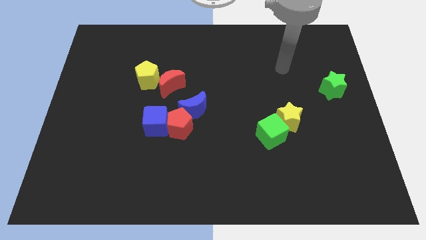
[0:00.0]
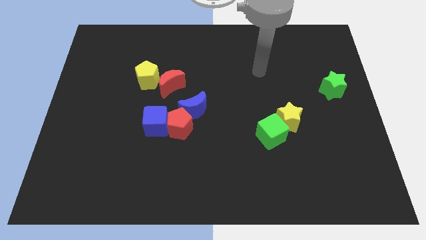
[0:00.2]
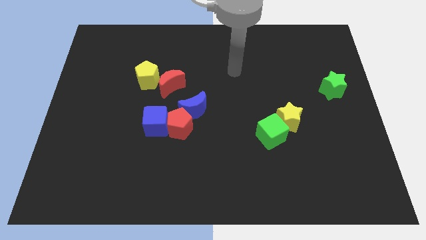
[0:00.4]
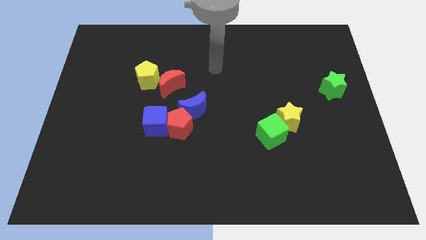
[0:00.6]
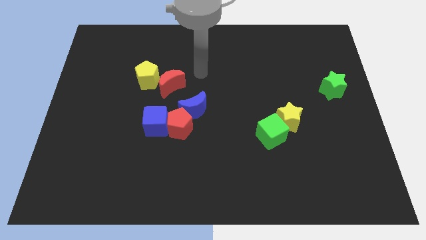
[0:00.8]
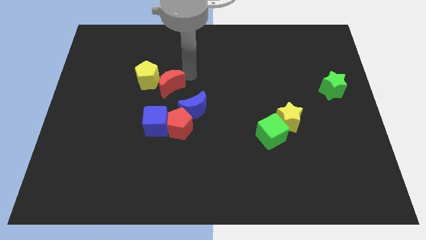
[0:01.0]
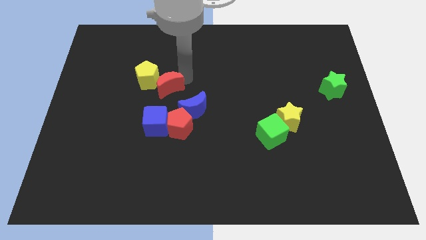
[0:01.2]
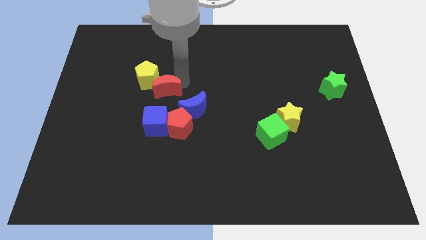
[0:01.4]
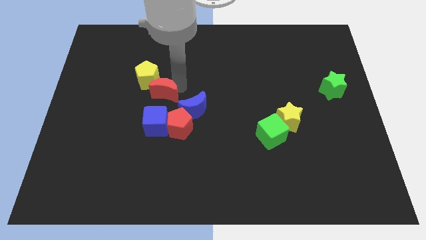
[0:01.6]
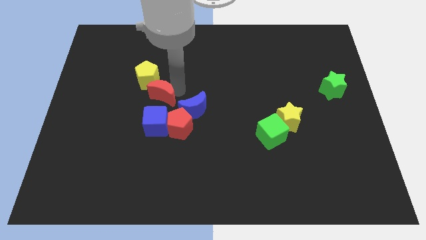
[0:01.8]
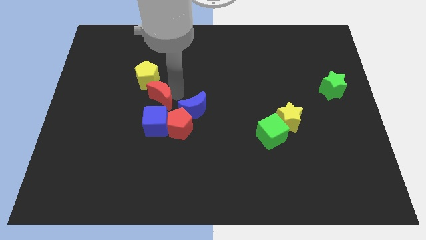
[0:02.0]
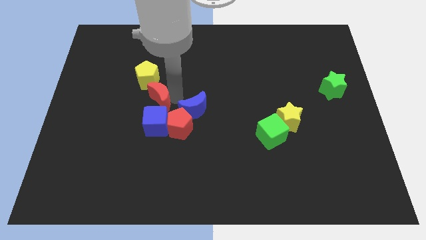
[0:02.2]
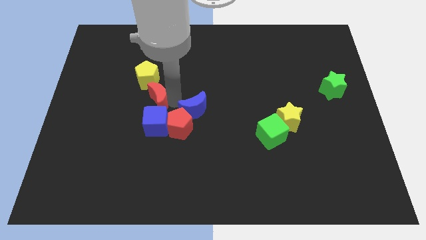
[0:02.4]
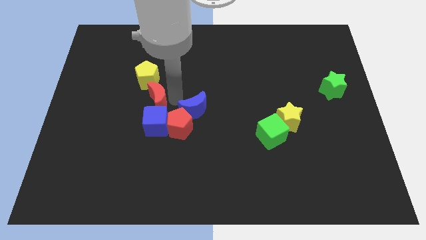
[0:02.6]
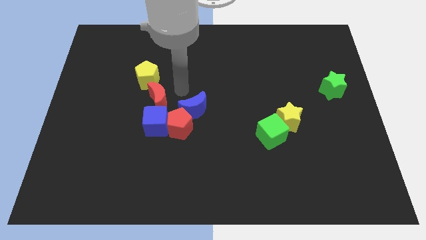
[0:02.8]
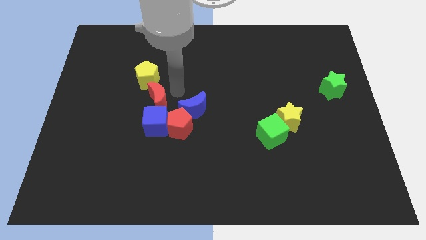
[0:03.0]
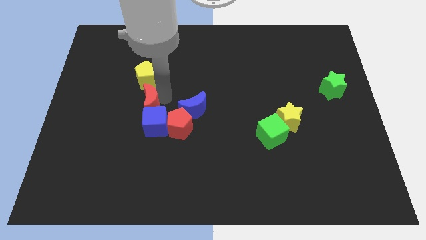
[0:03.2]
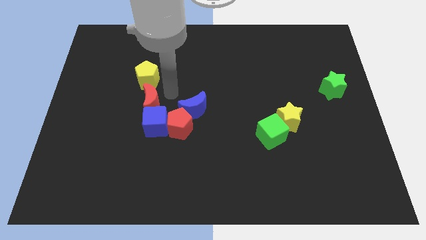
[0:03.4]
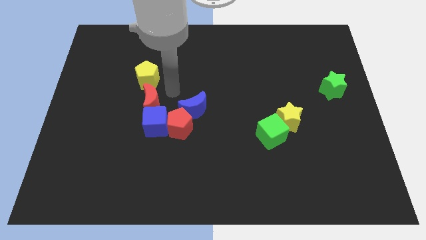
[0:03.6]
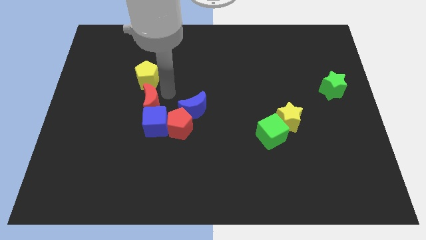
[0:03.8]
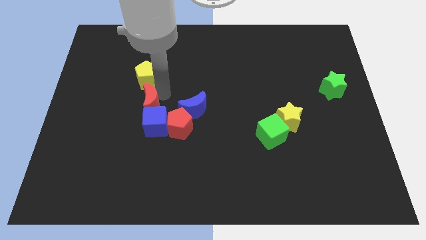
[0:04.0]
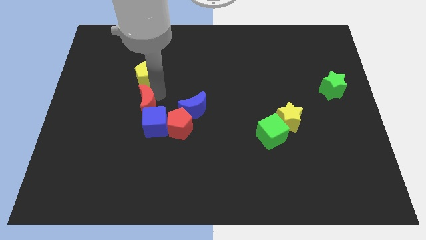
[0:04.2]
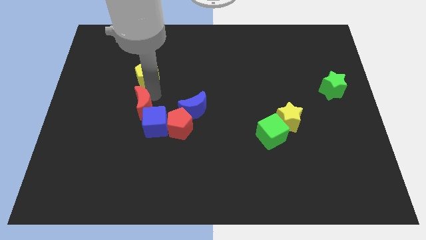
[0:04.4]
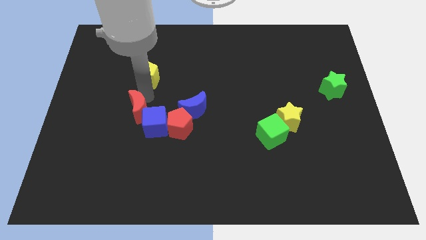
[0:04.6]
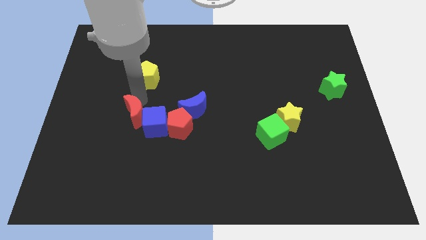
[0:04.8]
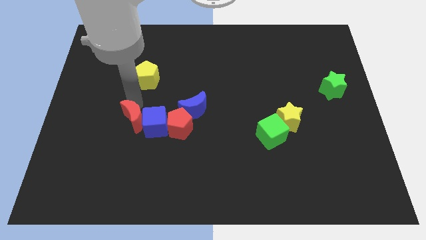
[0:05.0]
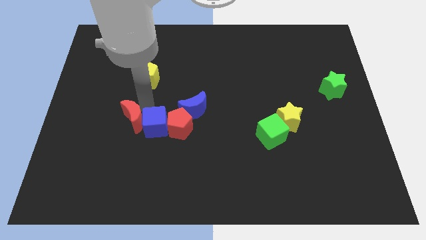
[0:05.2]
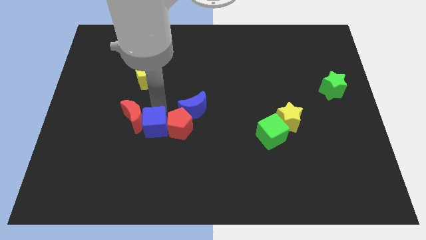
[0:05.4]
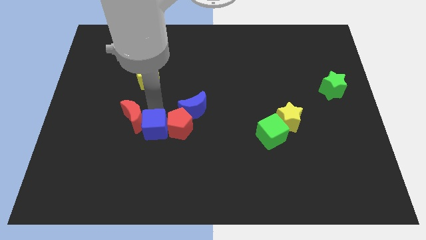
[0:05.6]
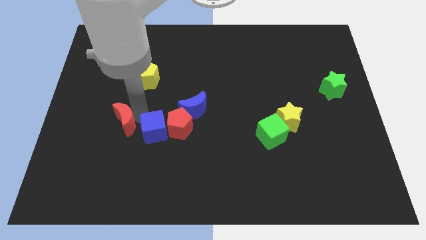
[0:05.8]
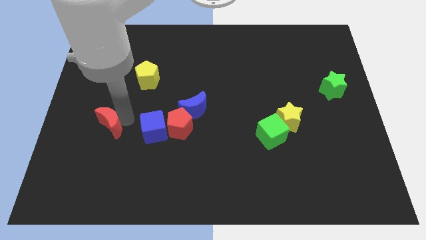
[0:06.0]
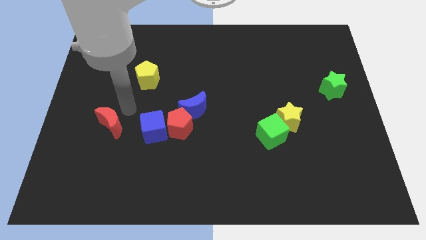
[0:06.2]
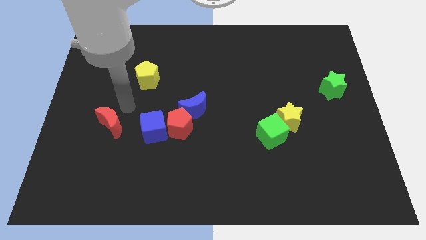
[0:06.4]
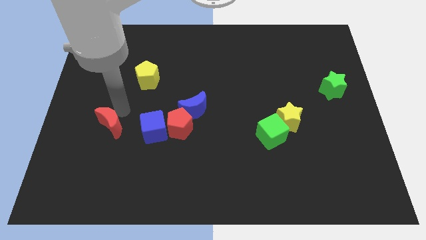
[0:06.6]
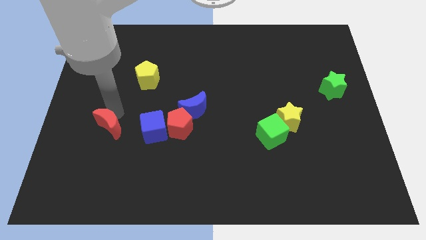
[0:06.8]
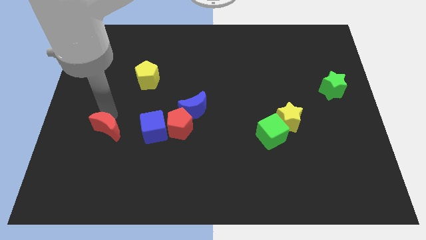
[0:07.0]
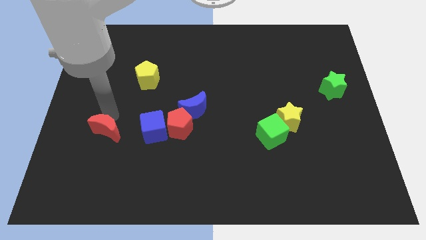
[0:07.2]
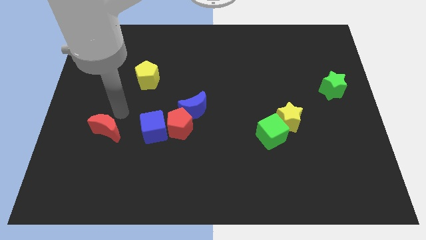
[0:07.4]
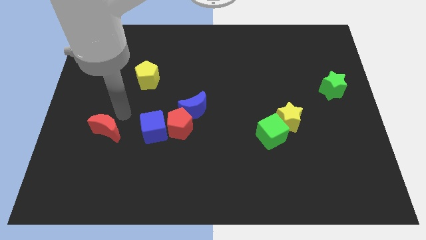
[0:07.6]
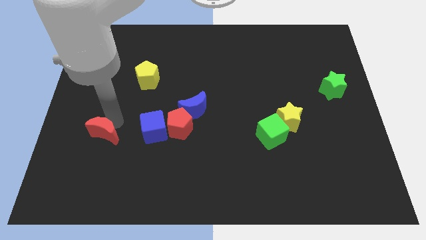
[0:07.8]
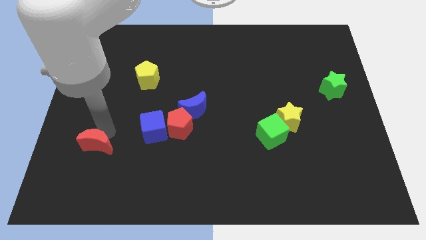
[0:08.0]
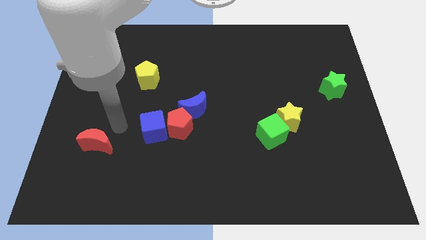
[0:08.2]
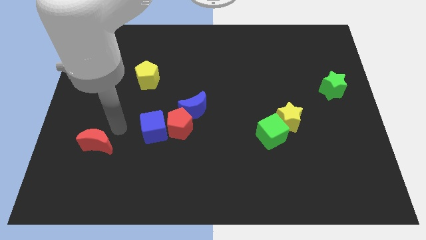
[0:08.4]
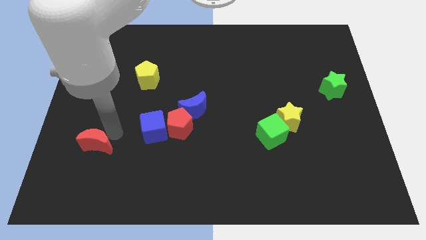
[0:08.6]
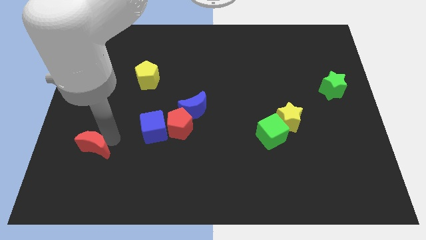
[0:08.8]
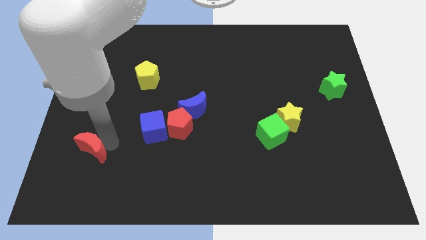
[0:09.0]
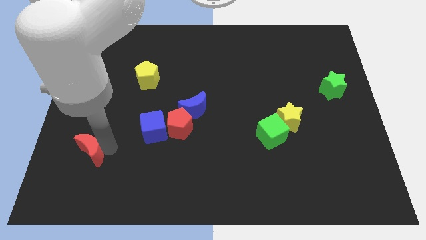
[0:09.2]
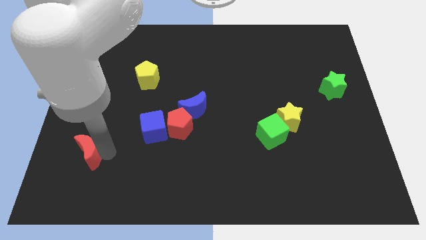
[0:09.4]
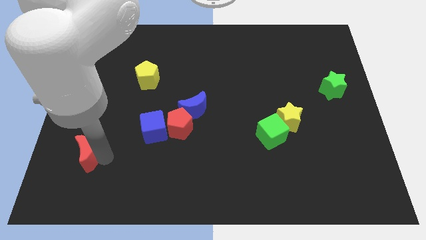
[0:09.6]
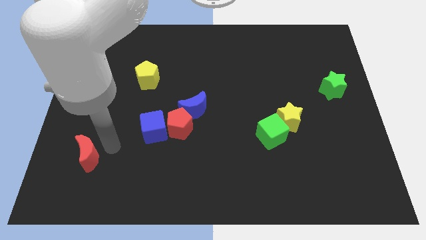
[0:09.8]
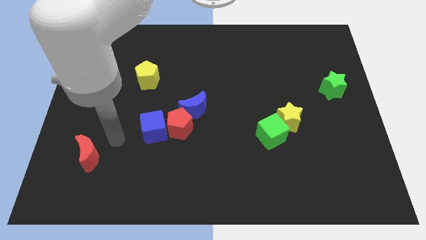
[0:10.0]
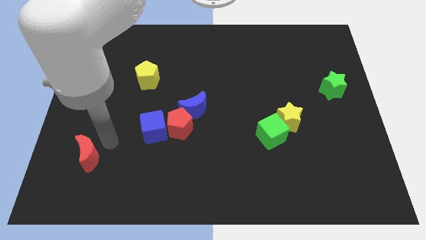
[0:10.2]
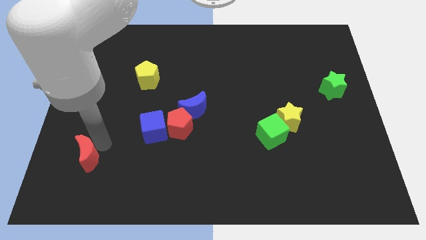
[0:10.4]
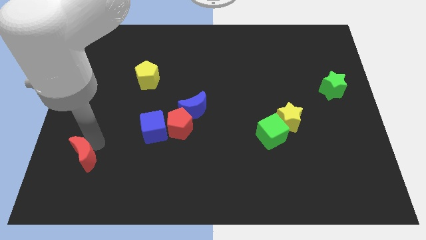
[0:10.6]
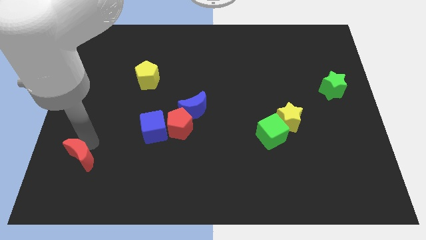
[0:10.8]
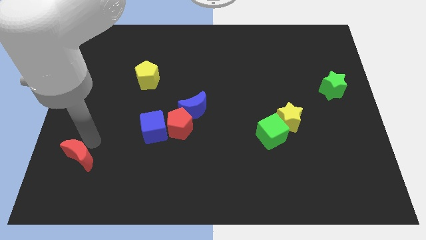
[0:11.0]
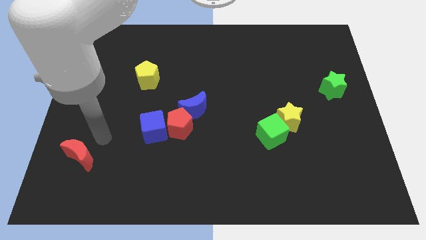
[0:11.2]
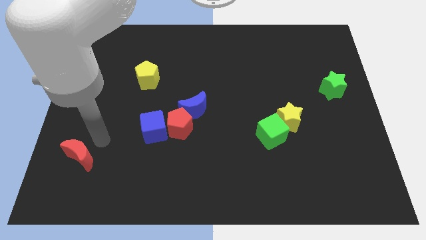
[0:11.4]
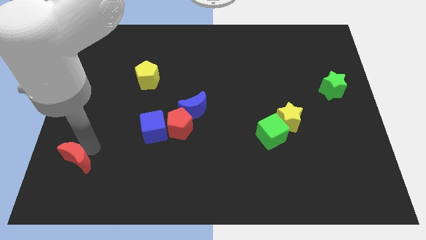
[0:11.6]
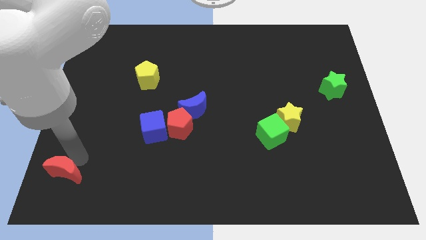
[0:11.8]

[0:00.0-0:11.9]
push the red moon to the lower left corner

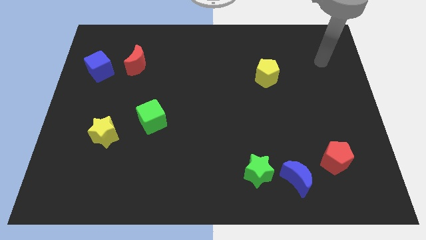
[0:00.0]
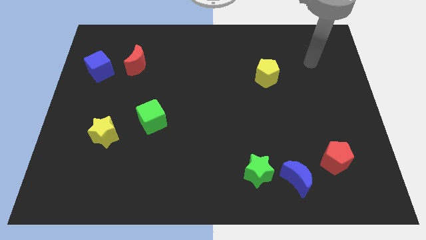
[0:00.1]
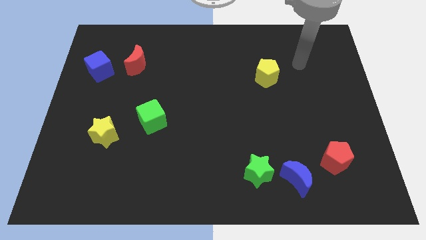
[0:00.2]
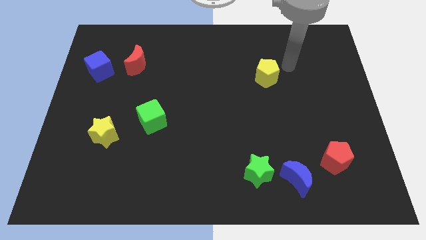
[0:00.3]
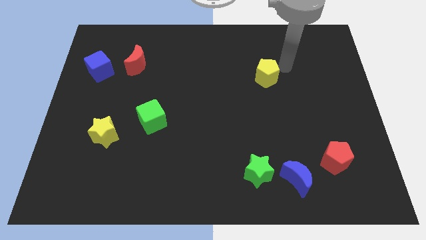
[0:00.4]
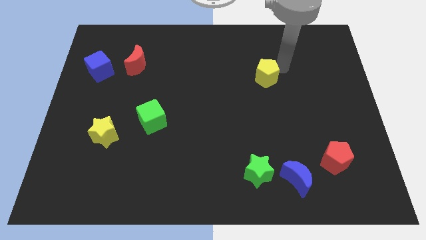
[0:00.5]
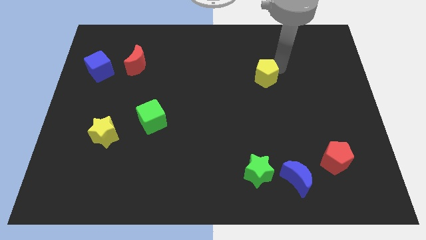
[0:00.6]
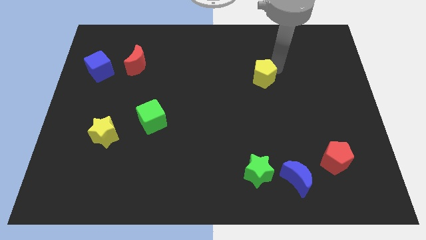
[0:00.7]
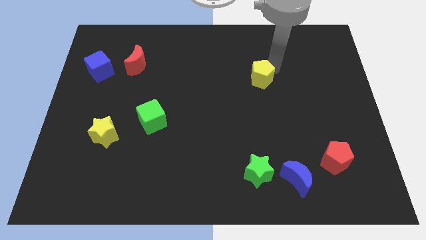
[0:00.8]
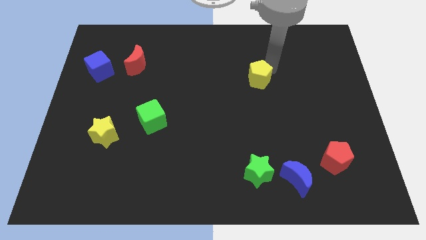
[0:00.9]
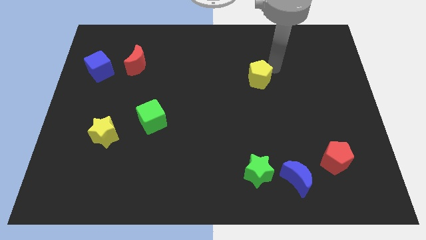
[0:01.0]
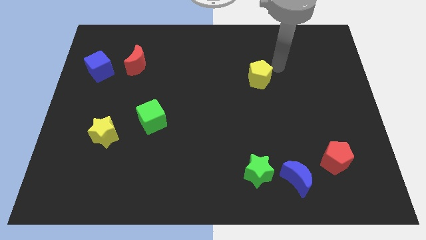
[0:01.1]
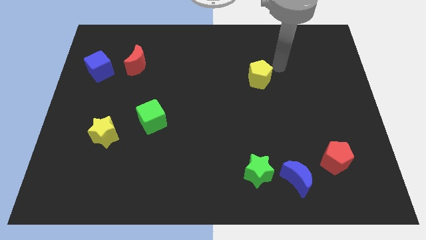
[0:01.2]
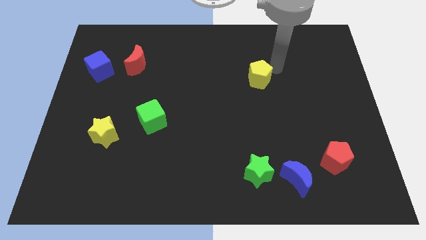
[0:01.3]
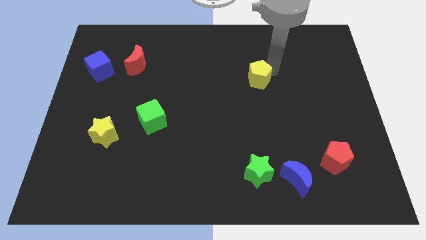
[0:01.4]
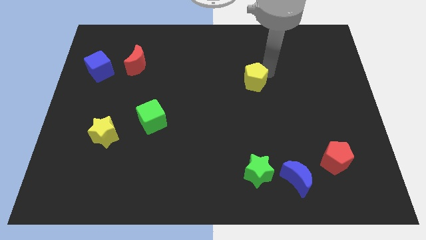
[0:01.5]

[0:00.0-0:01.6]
push the yellow pentagon to the center of the board
